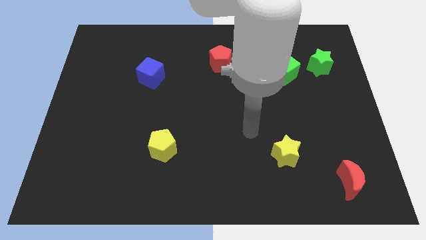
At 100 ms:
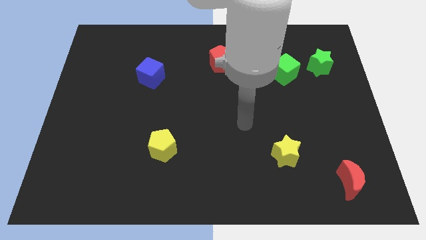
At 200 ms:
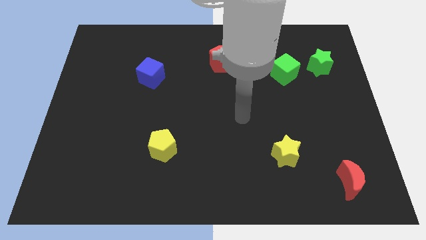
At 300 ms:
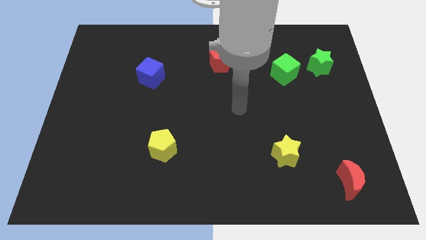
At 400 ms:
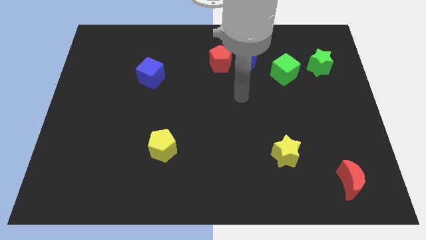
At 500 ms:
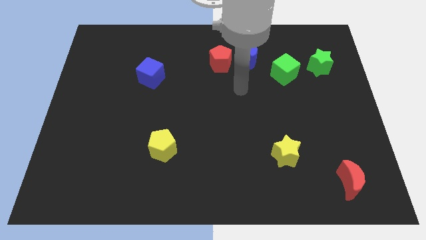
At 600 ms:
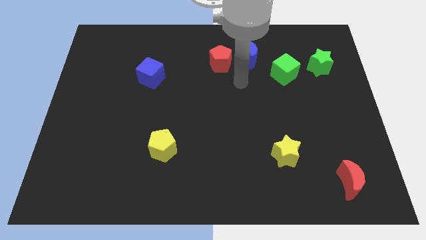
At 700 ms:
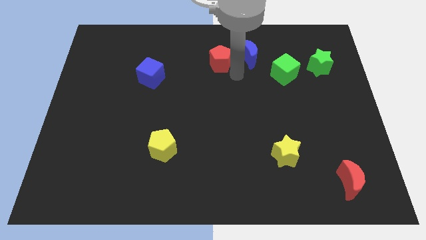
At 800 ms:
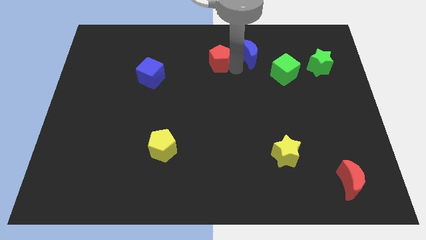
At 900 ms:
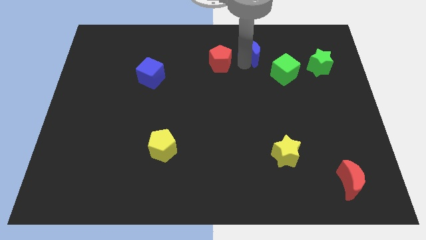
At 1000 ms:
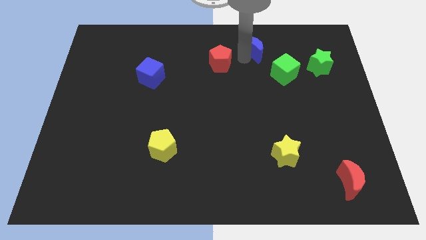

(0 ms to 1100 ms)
move the red pentagon away from the blue moon

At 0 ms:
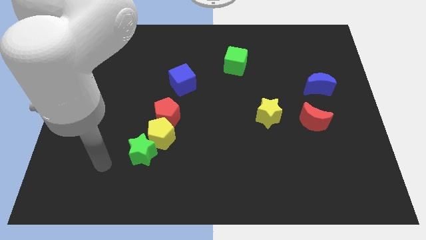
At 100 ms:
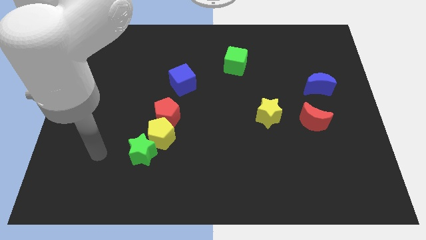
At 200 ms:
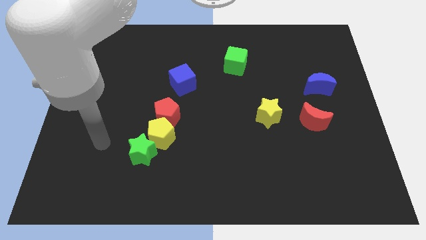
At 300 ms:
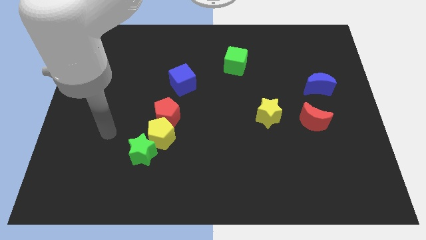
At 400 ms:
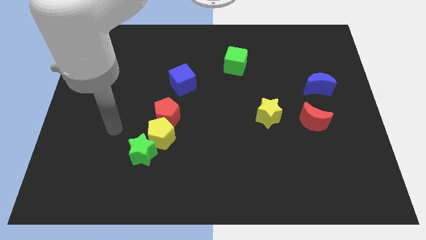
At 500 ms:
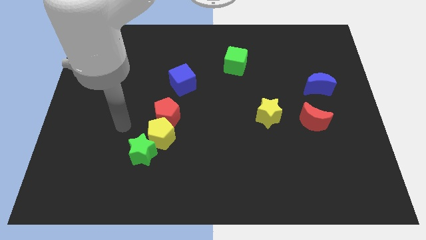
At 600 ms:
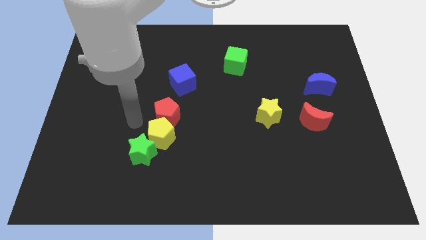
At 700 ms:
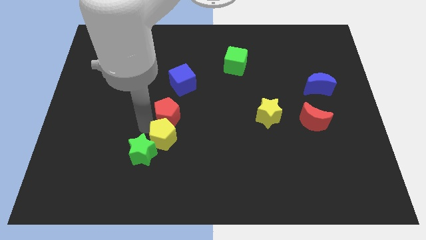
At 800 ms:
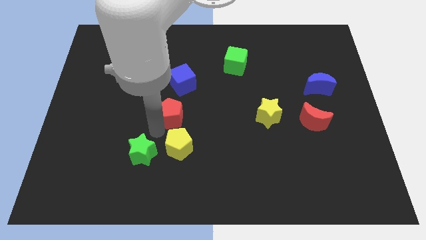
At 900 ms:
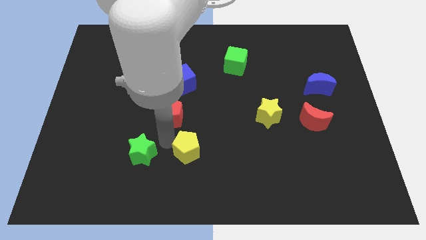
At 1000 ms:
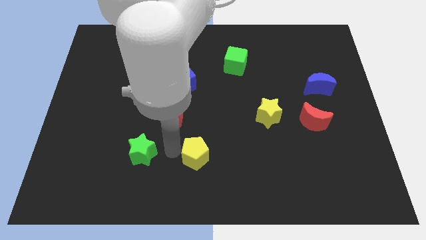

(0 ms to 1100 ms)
pull the green star apart from the yellow pentagon

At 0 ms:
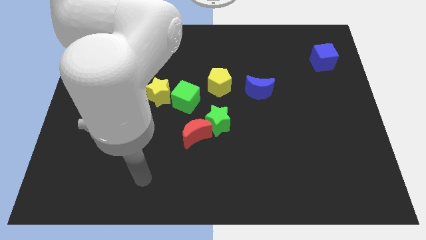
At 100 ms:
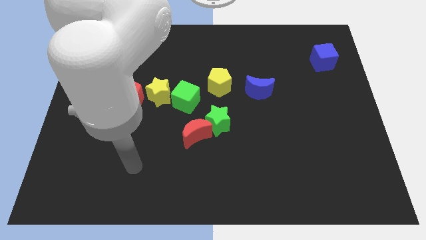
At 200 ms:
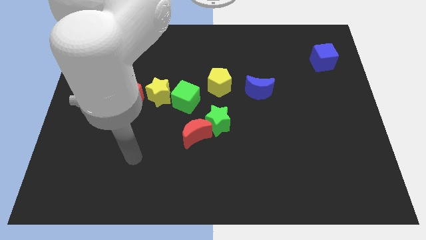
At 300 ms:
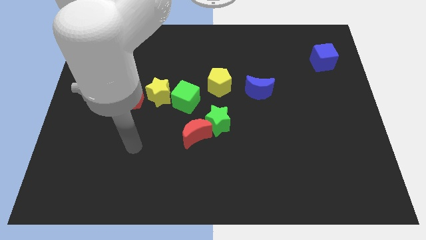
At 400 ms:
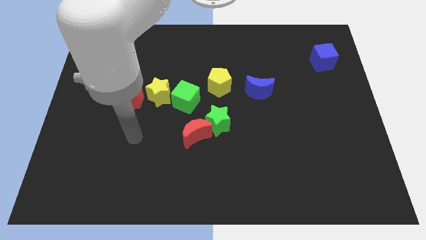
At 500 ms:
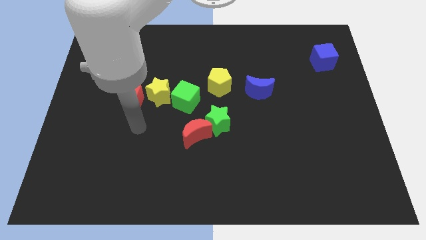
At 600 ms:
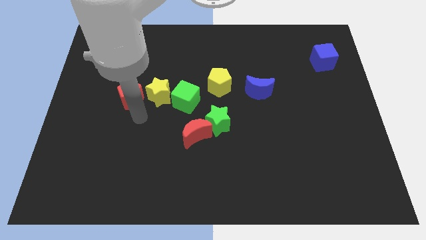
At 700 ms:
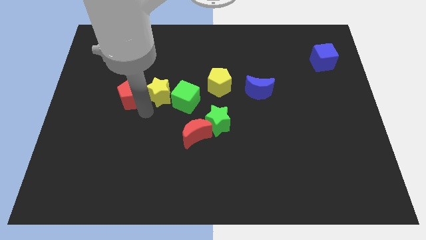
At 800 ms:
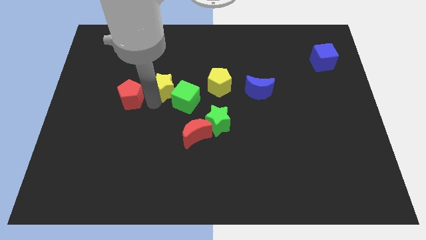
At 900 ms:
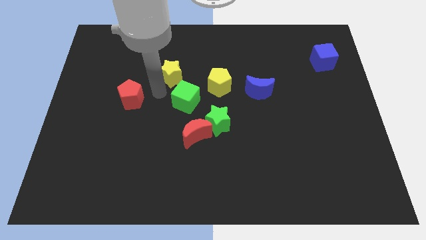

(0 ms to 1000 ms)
pull the red pentagon apart from the yellow star

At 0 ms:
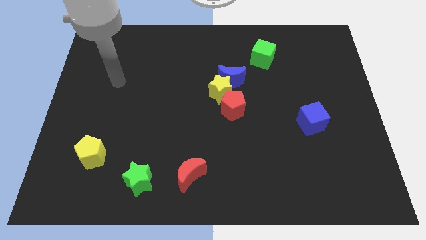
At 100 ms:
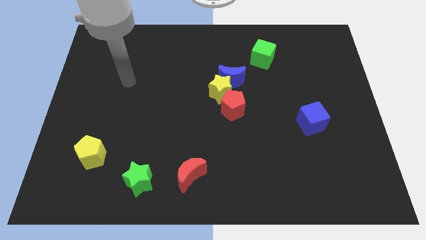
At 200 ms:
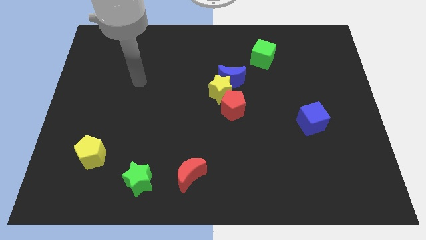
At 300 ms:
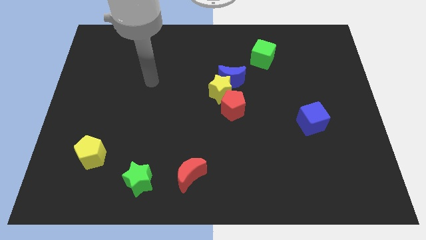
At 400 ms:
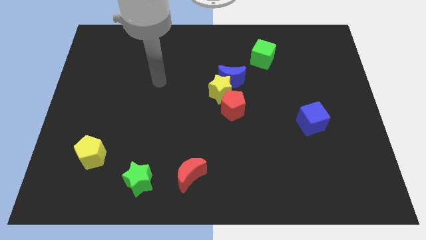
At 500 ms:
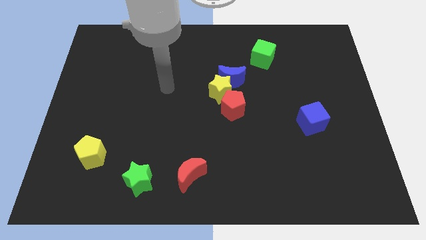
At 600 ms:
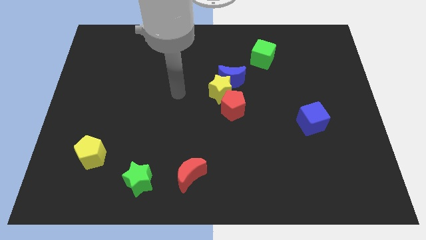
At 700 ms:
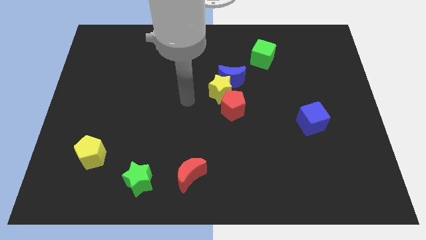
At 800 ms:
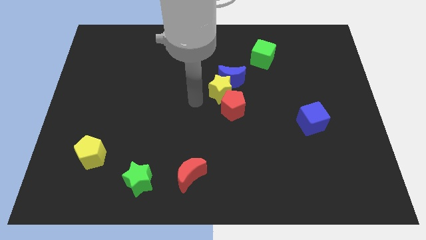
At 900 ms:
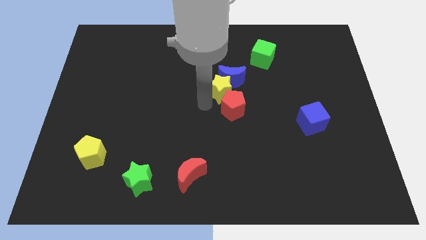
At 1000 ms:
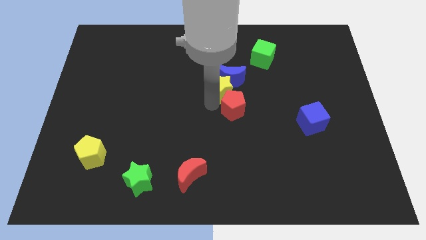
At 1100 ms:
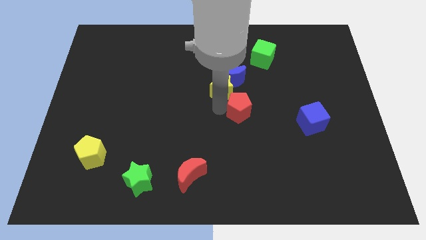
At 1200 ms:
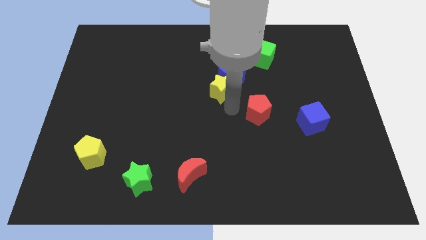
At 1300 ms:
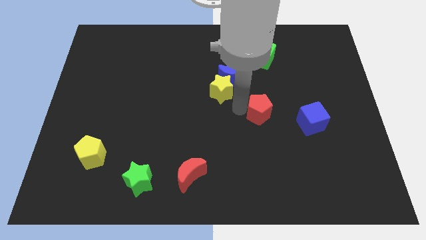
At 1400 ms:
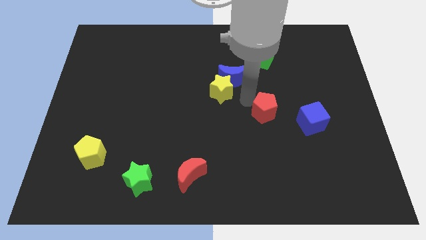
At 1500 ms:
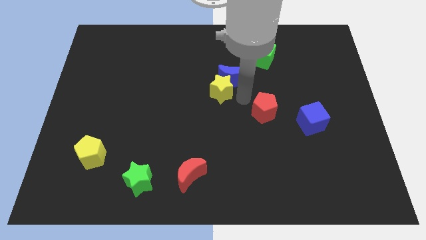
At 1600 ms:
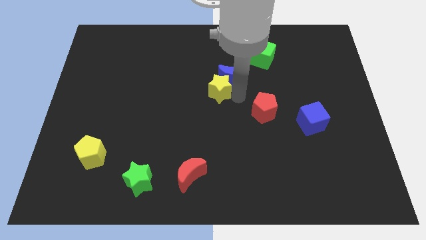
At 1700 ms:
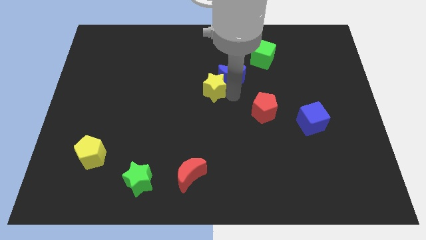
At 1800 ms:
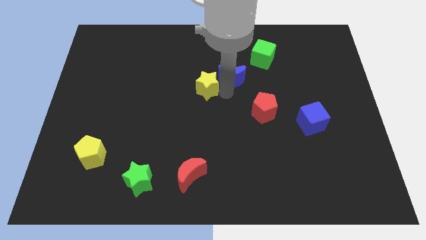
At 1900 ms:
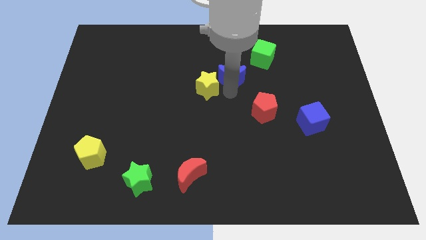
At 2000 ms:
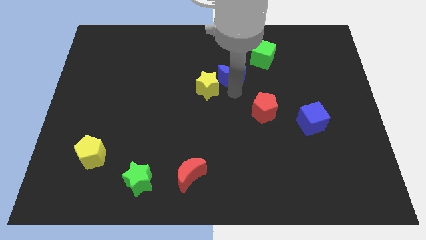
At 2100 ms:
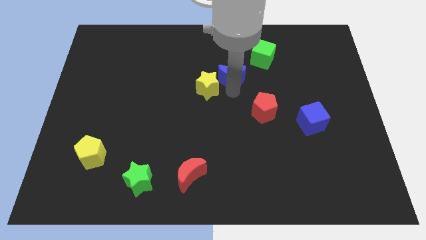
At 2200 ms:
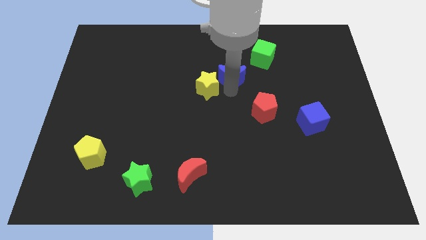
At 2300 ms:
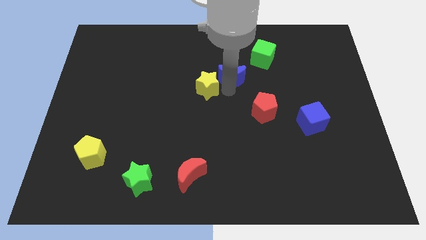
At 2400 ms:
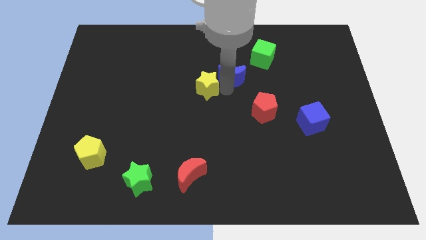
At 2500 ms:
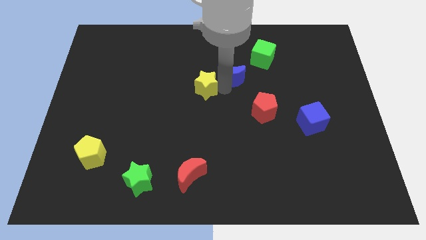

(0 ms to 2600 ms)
pull the yellow star apart from the blue moon and red pentagon

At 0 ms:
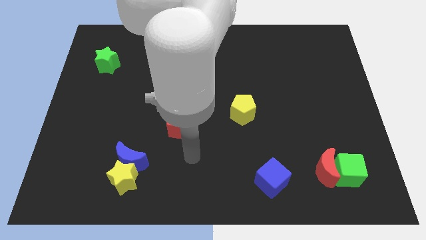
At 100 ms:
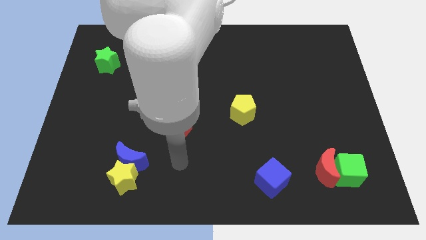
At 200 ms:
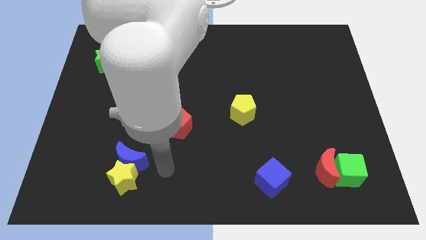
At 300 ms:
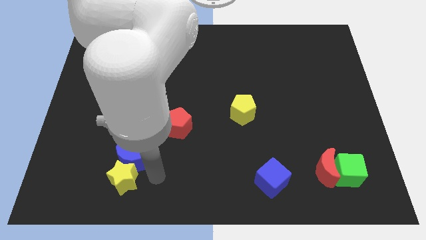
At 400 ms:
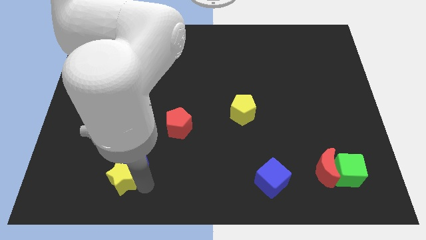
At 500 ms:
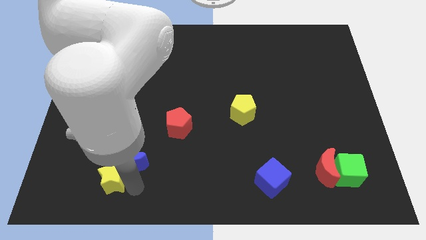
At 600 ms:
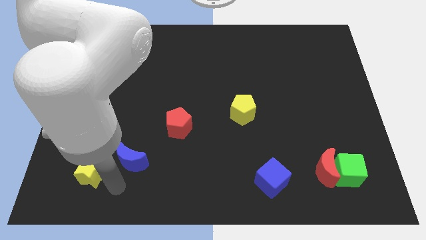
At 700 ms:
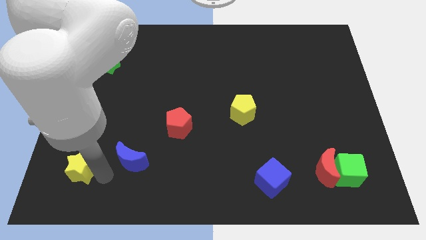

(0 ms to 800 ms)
pull the blue moon apart from the yellow star

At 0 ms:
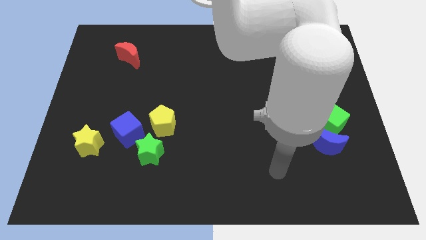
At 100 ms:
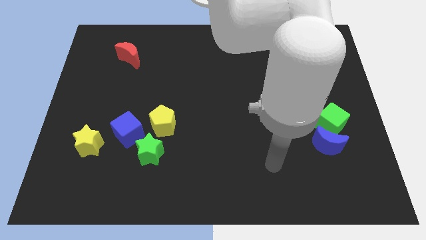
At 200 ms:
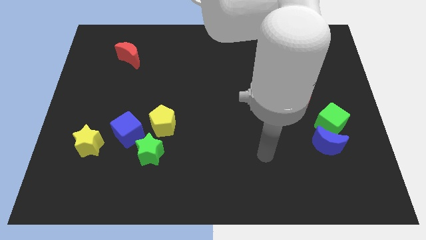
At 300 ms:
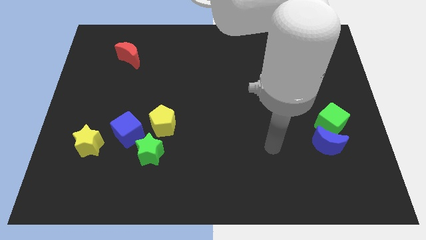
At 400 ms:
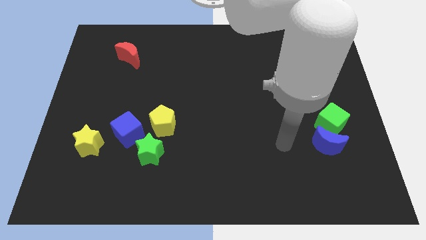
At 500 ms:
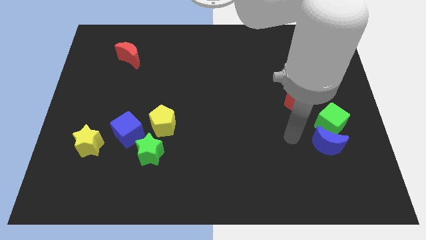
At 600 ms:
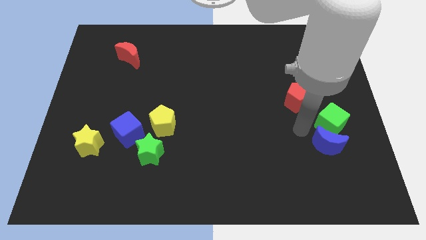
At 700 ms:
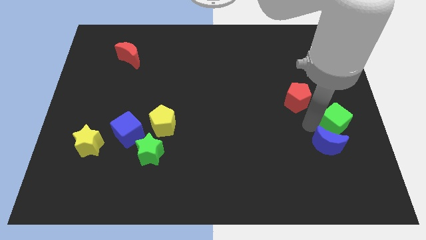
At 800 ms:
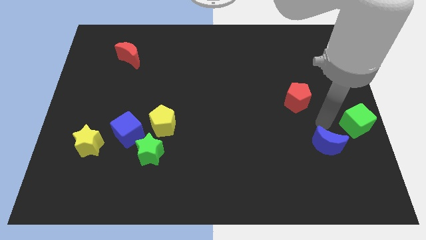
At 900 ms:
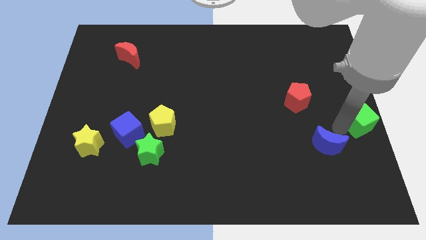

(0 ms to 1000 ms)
move the blue moon away from the green cube

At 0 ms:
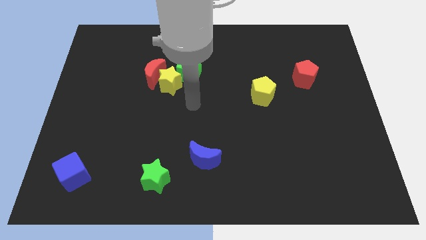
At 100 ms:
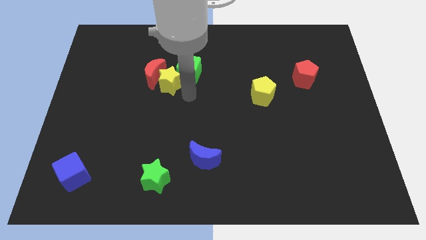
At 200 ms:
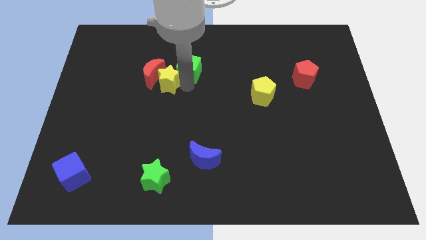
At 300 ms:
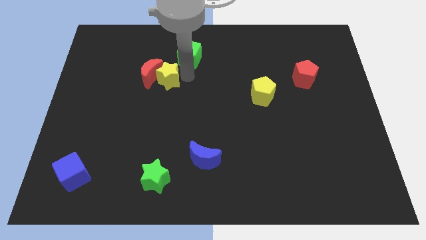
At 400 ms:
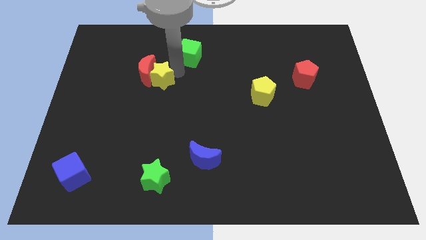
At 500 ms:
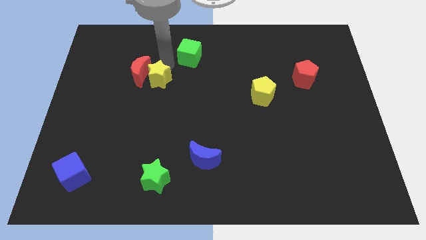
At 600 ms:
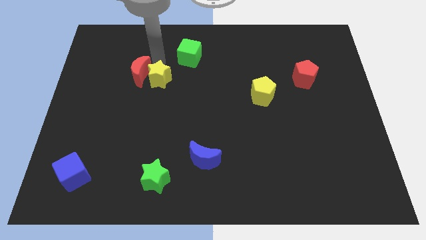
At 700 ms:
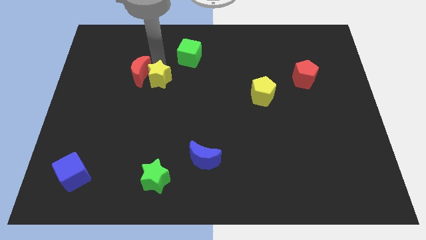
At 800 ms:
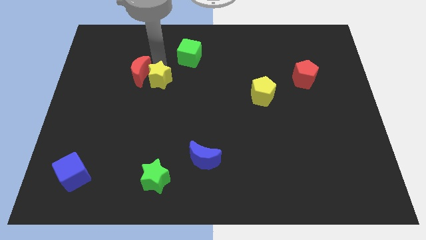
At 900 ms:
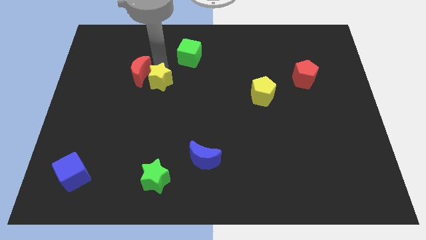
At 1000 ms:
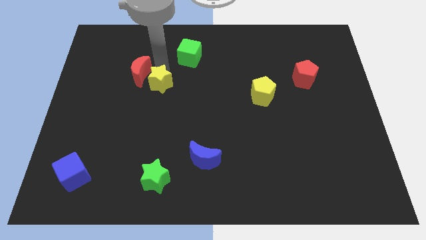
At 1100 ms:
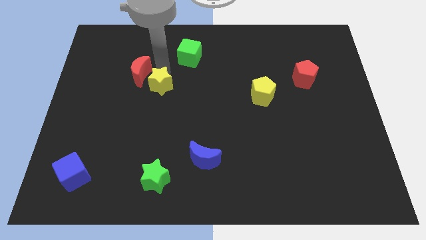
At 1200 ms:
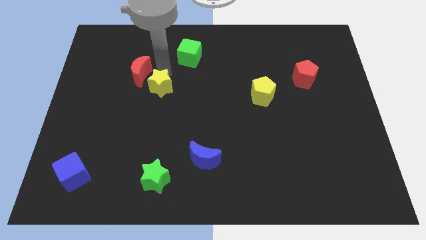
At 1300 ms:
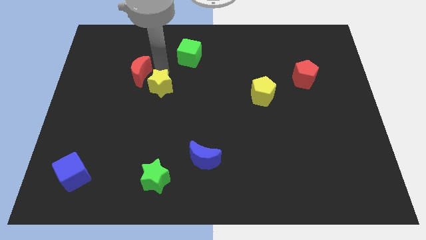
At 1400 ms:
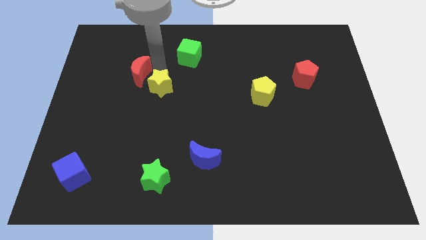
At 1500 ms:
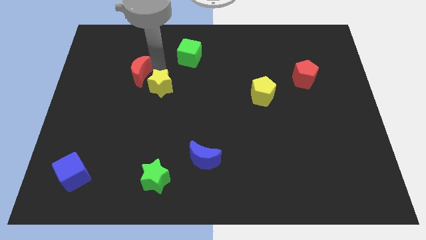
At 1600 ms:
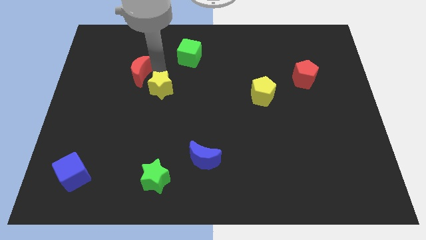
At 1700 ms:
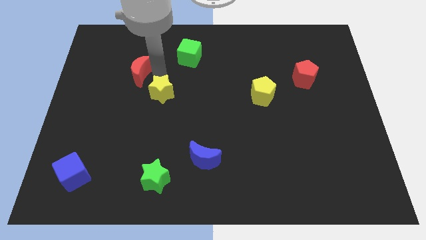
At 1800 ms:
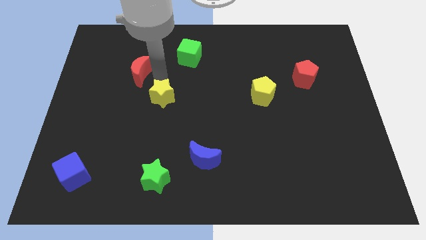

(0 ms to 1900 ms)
pull the yellow star apart from the red moon and green cube
